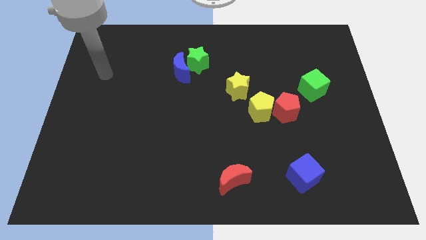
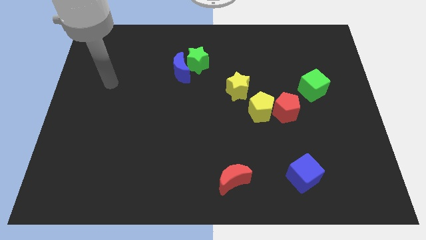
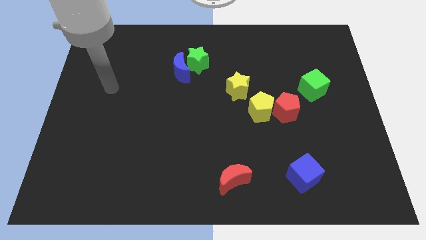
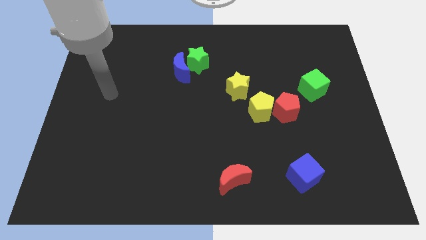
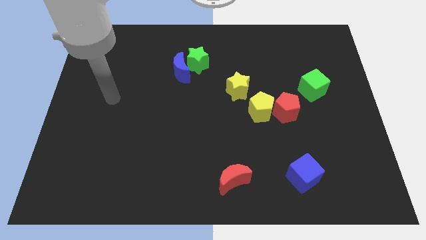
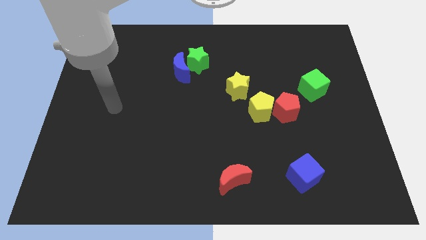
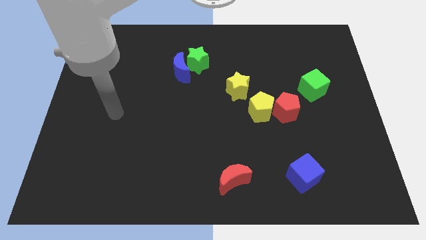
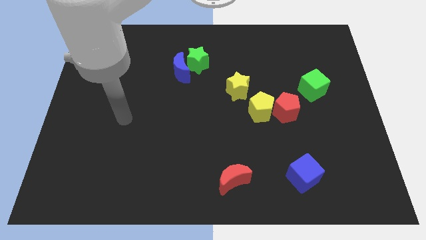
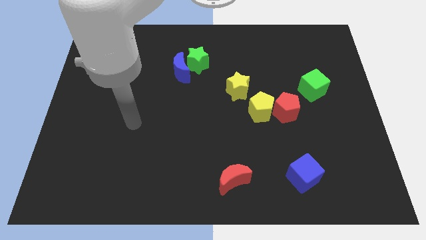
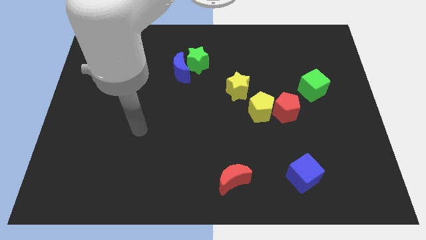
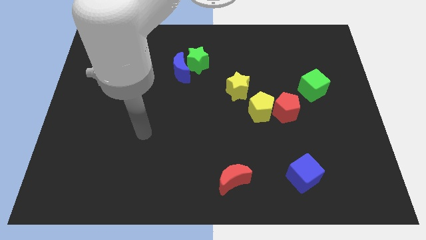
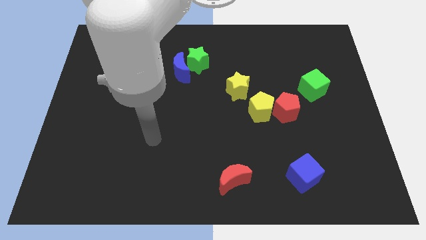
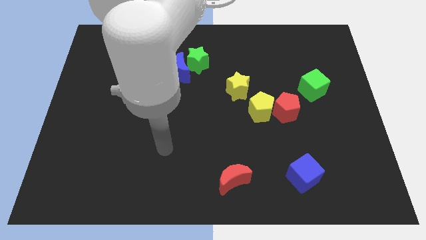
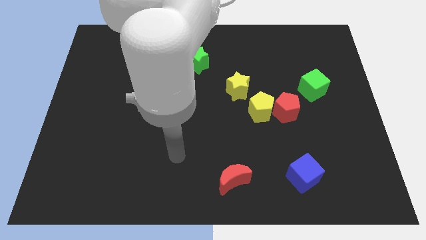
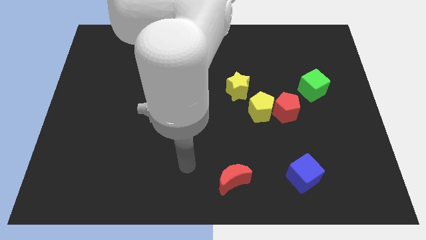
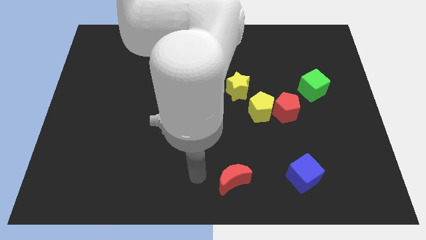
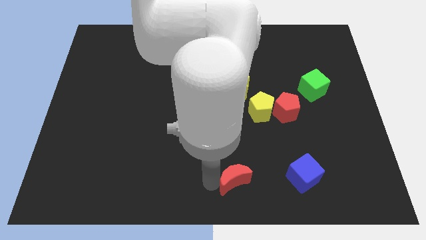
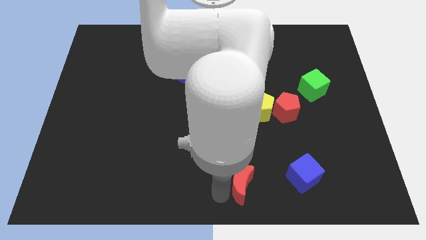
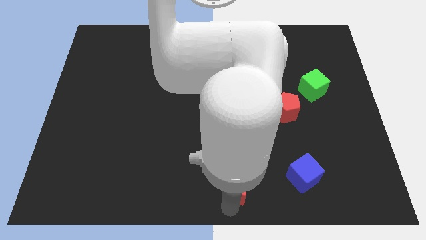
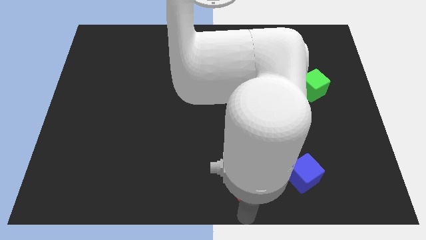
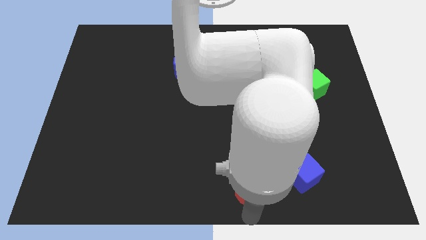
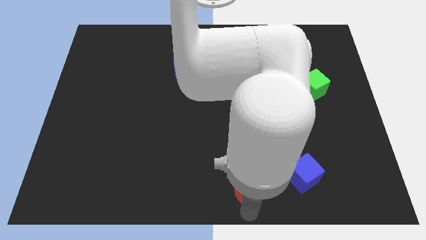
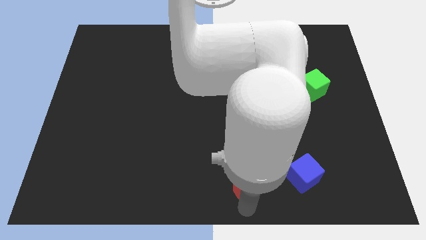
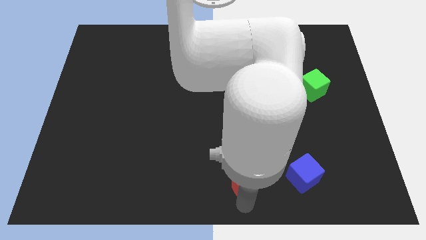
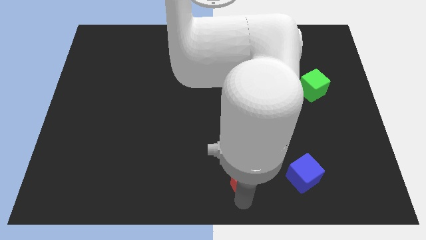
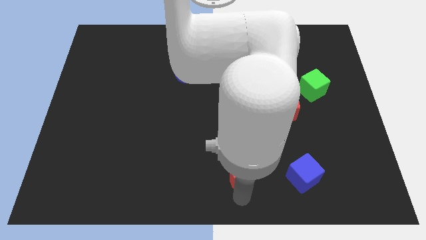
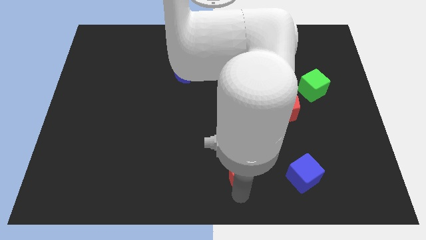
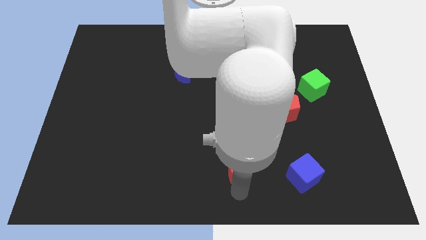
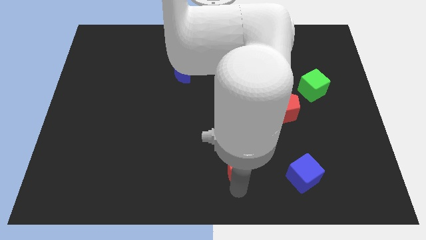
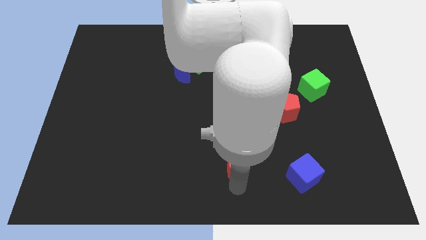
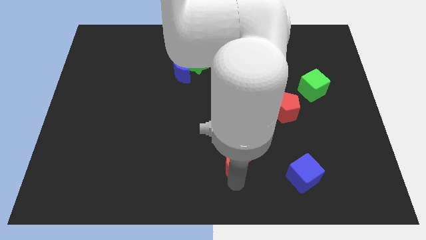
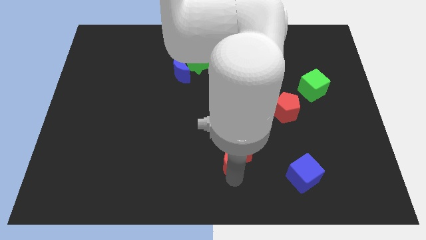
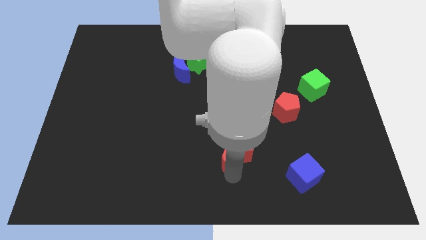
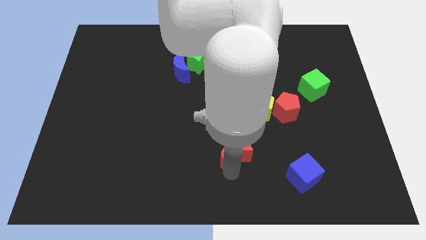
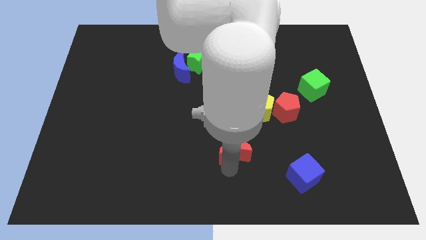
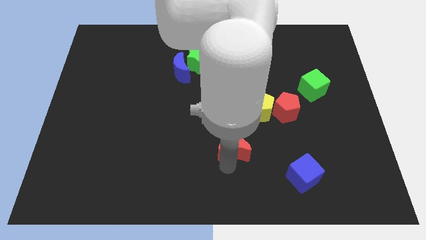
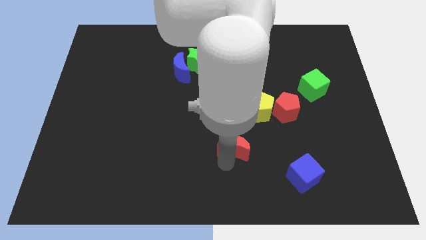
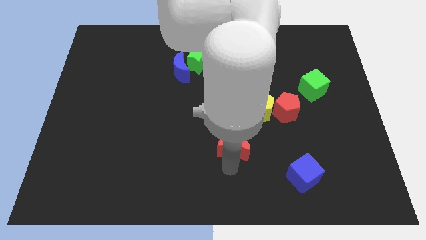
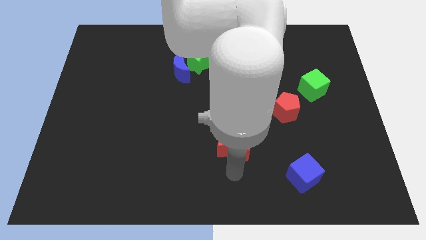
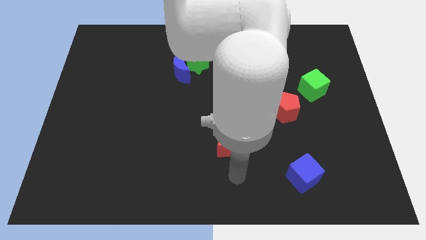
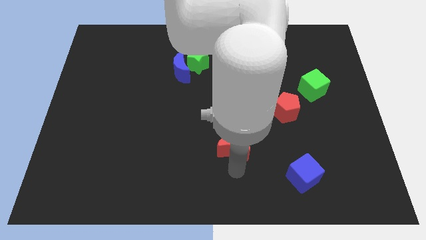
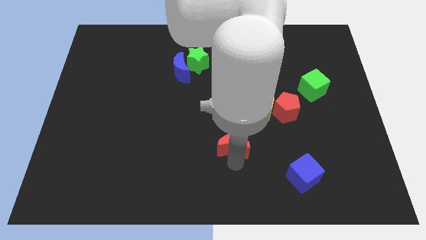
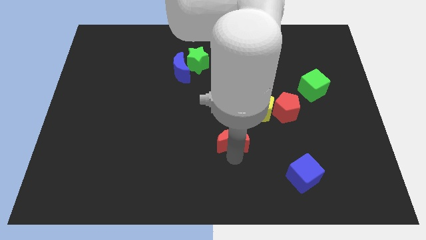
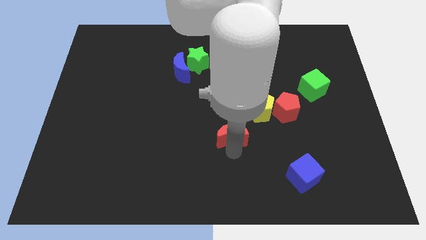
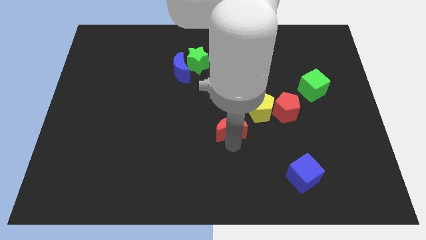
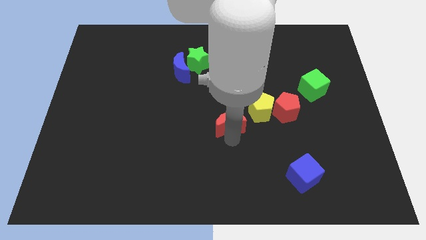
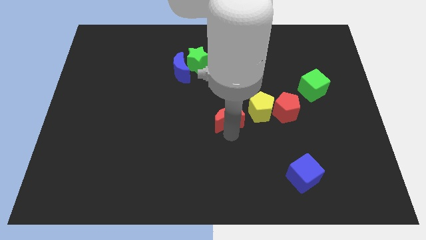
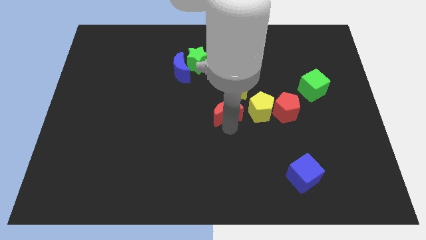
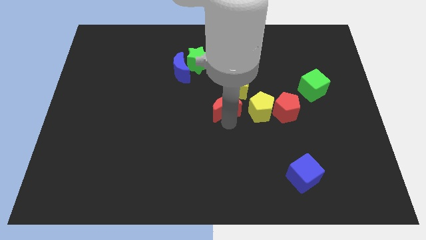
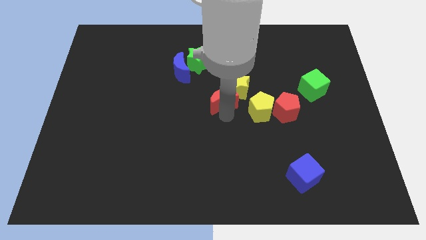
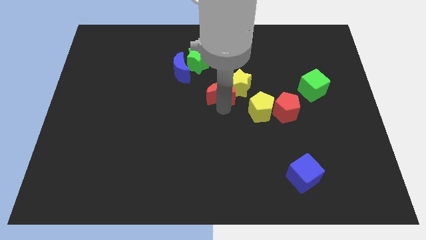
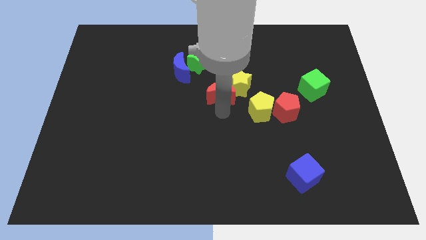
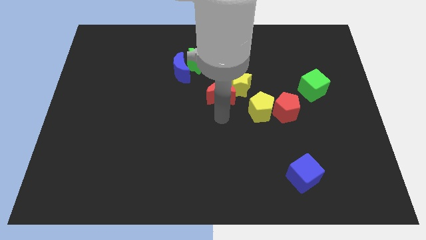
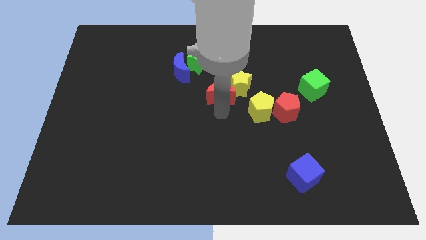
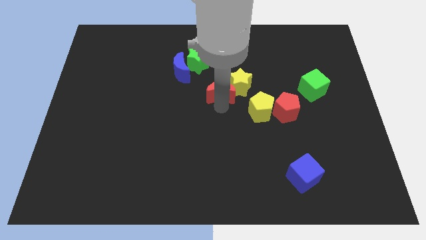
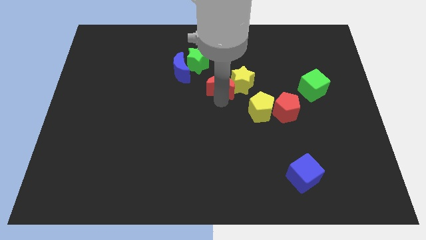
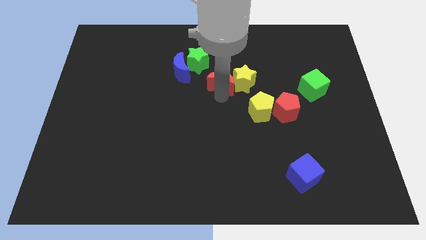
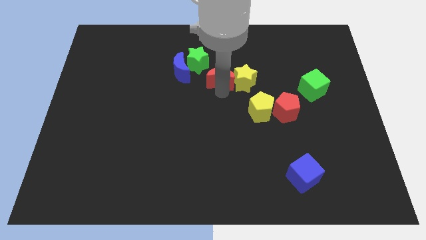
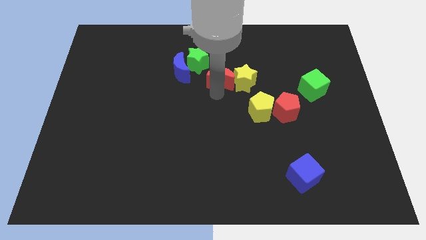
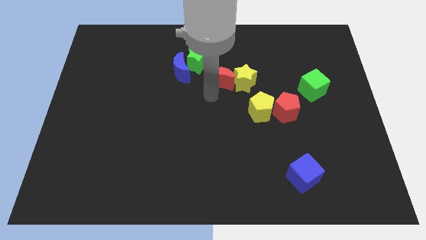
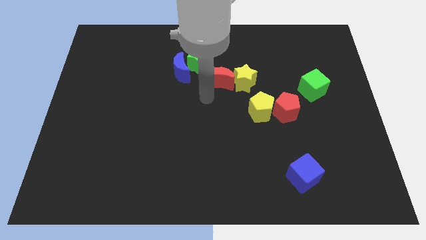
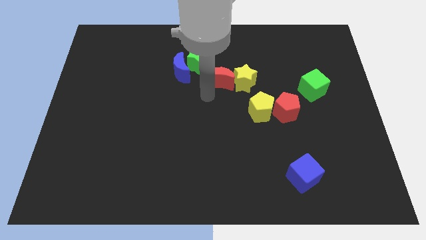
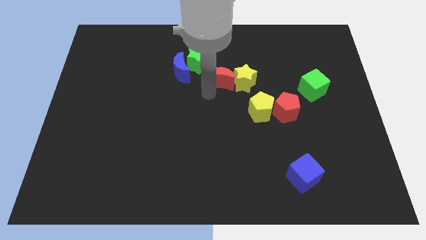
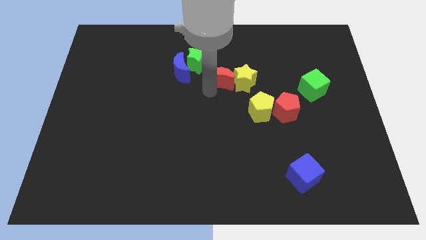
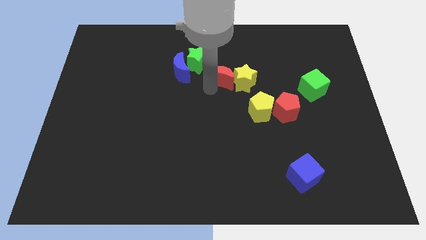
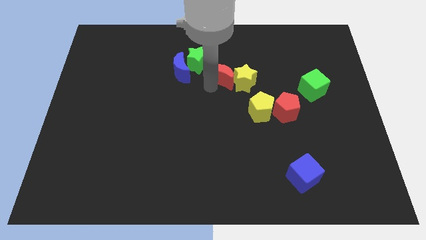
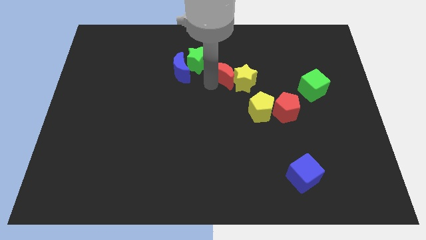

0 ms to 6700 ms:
push the red moon right of the green star

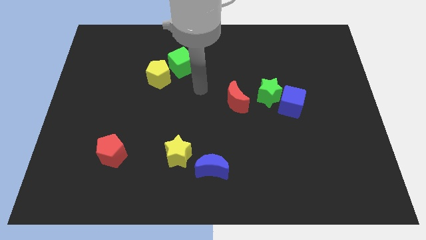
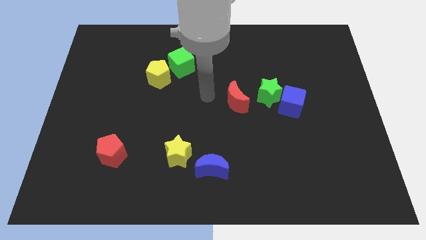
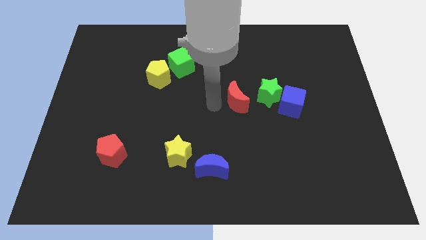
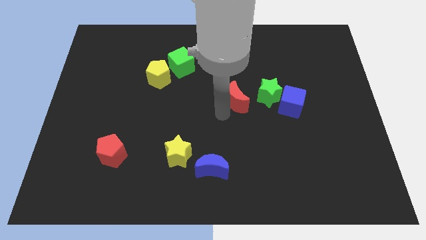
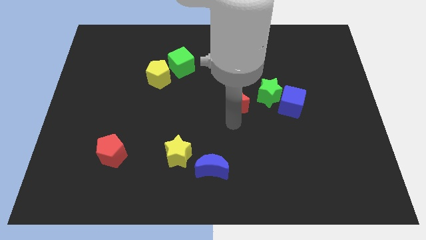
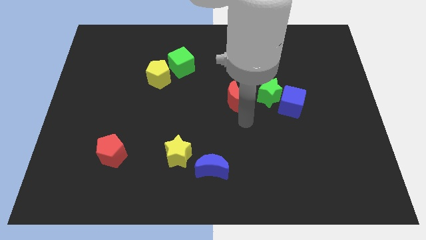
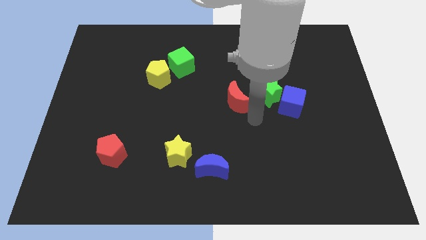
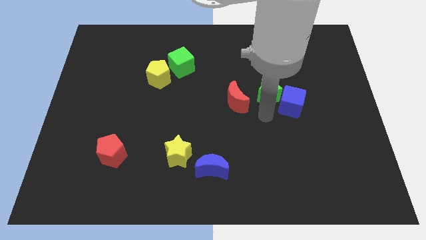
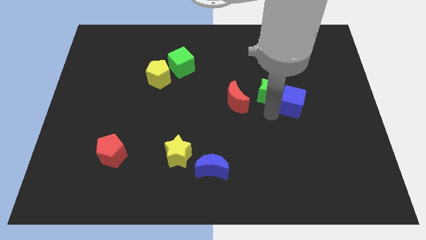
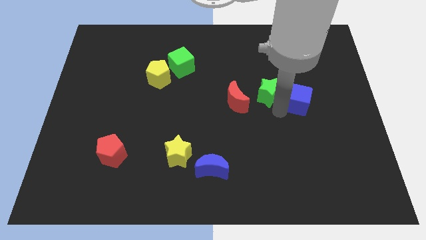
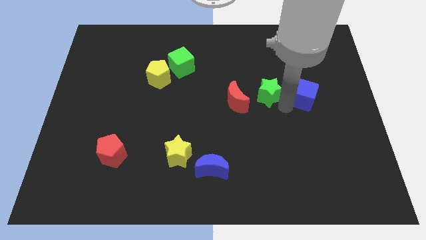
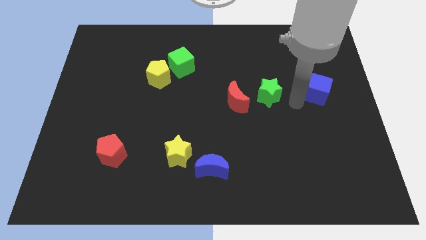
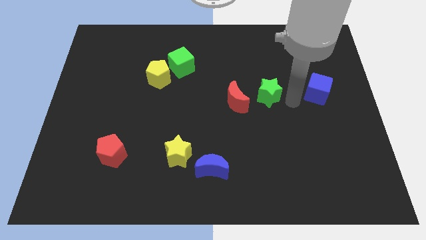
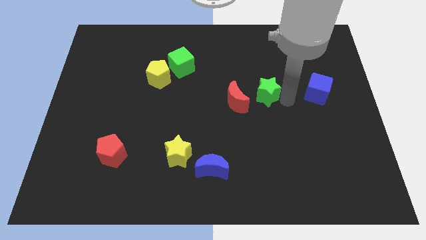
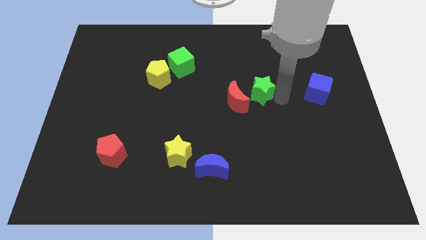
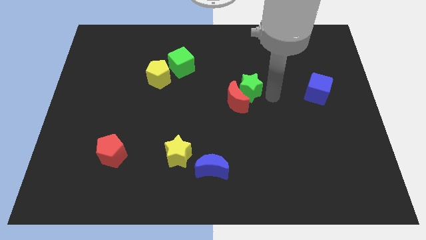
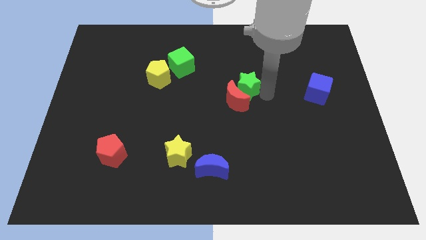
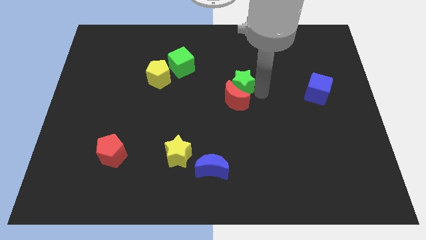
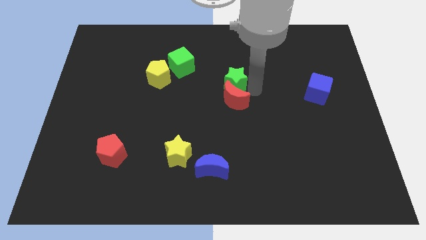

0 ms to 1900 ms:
put the green star to the top left side of the red moon
